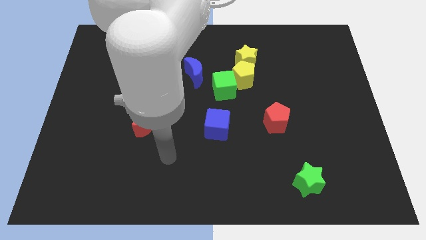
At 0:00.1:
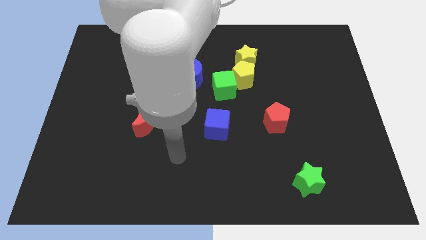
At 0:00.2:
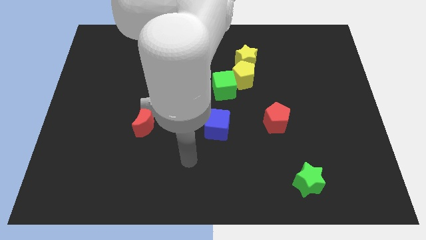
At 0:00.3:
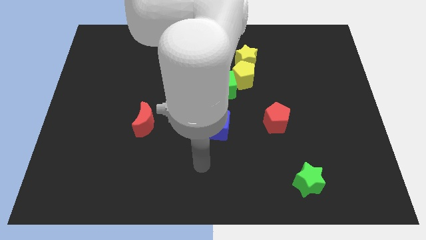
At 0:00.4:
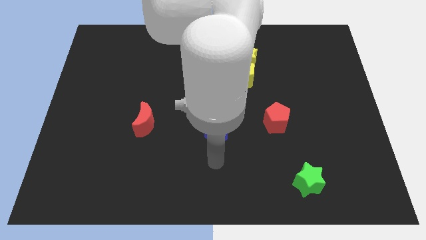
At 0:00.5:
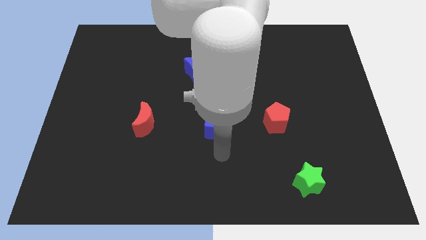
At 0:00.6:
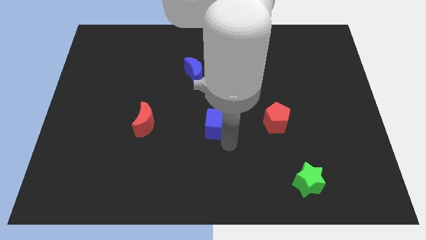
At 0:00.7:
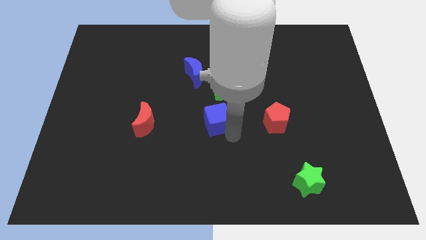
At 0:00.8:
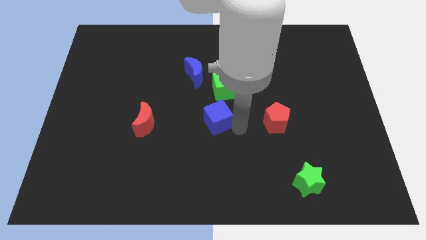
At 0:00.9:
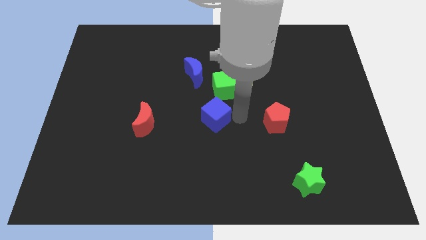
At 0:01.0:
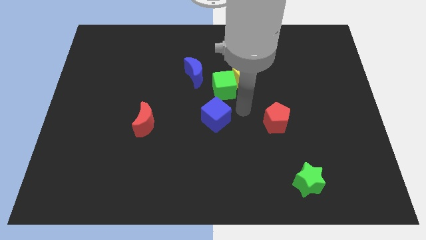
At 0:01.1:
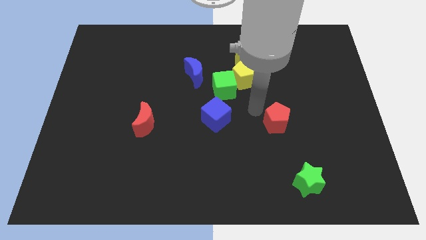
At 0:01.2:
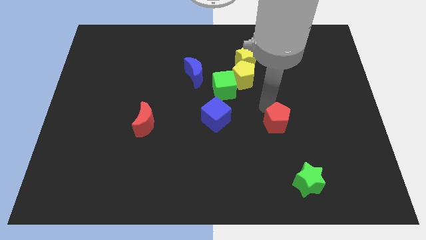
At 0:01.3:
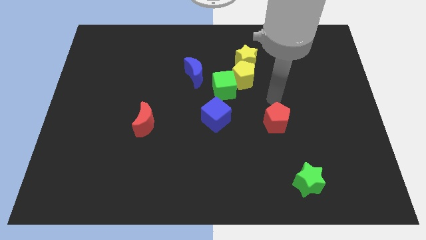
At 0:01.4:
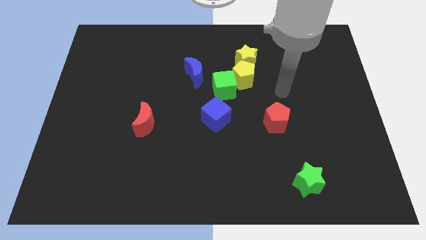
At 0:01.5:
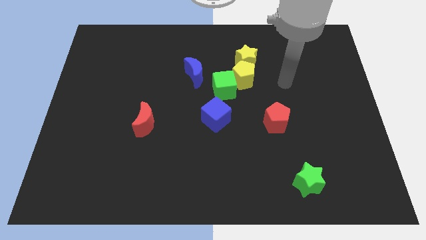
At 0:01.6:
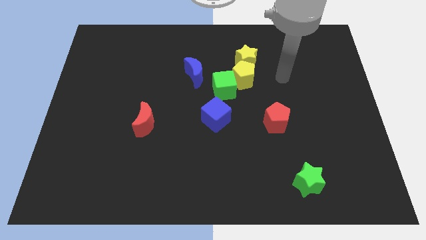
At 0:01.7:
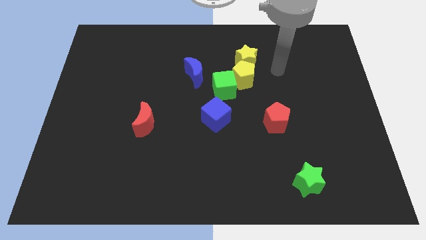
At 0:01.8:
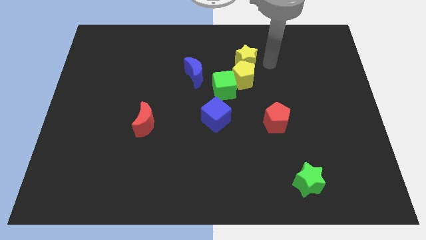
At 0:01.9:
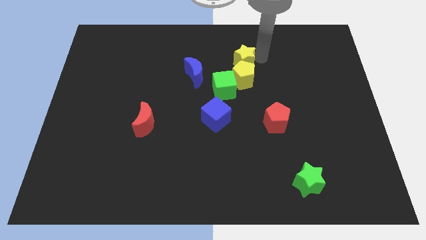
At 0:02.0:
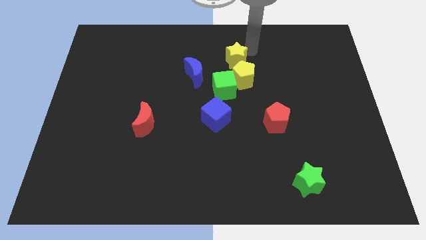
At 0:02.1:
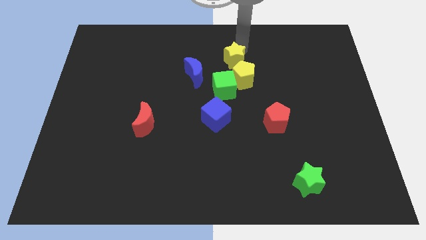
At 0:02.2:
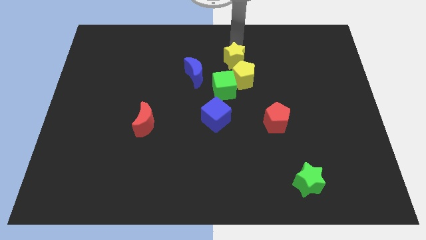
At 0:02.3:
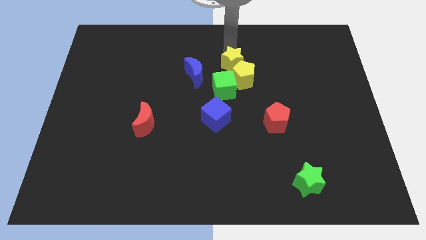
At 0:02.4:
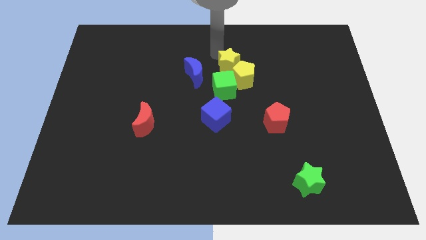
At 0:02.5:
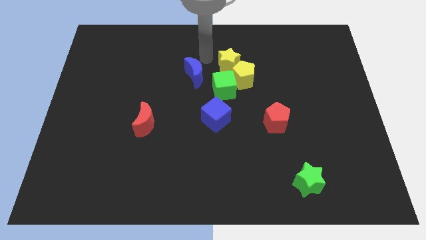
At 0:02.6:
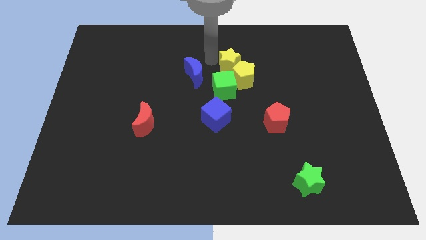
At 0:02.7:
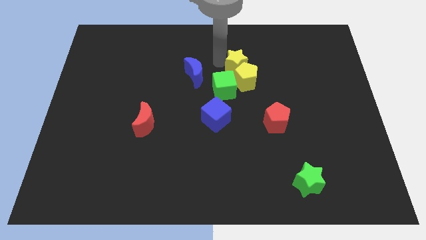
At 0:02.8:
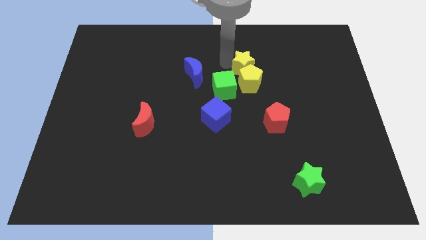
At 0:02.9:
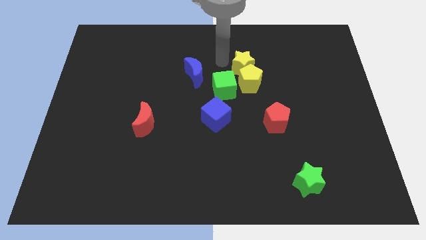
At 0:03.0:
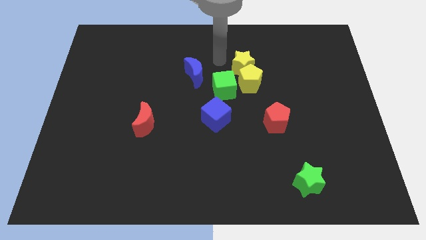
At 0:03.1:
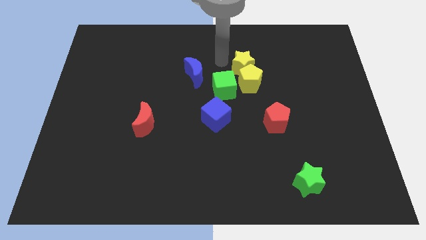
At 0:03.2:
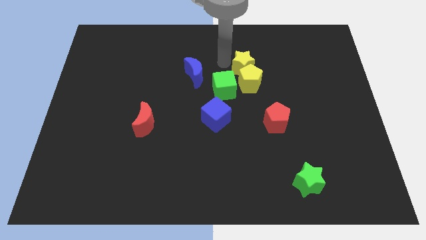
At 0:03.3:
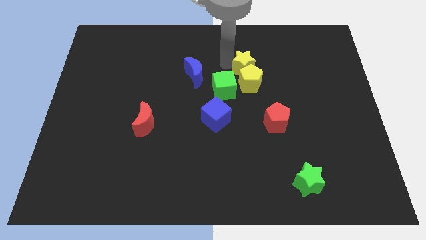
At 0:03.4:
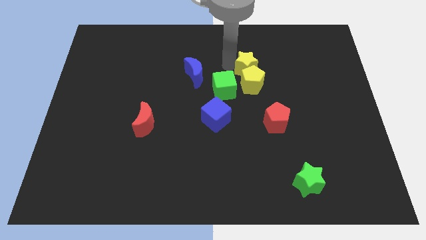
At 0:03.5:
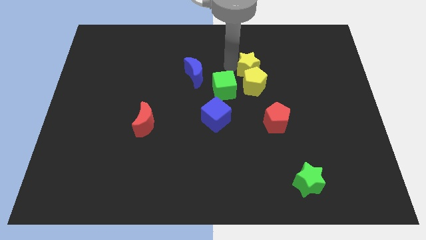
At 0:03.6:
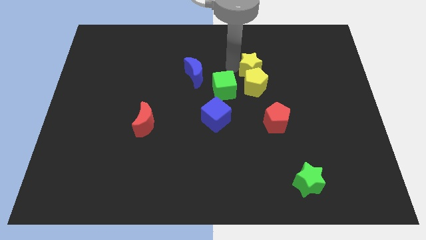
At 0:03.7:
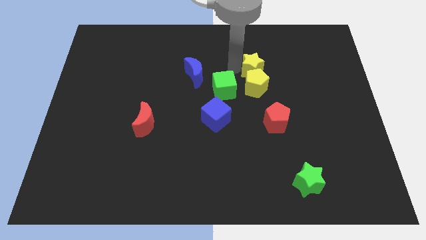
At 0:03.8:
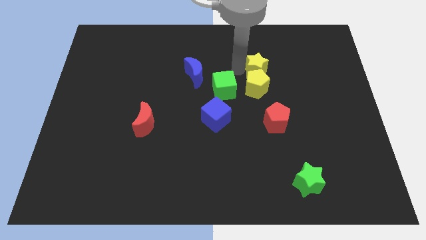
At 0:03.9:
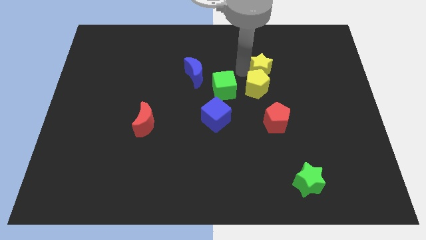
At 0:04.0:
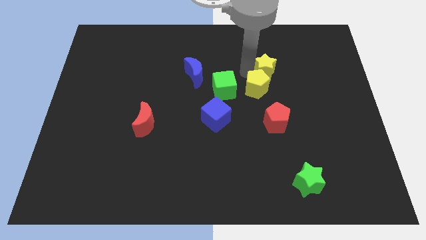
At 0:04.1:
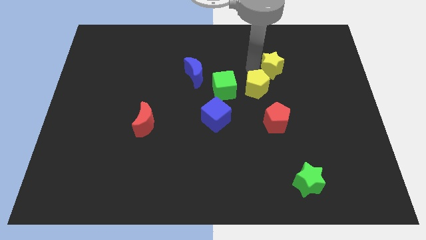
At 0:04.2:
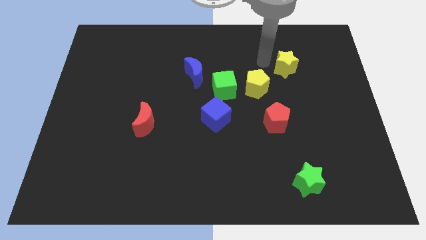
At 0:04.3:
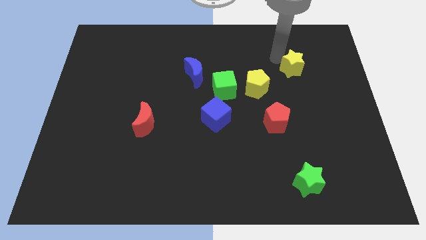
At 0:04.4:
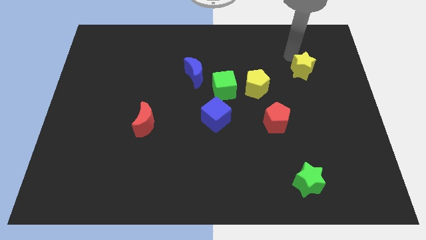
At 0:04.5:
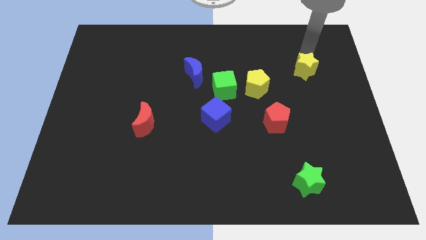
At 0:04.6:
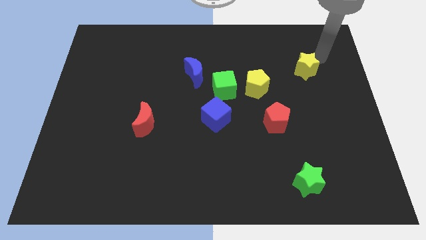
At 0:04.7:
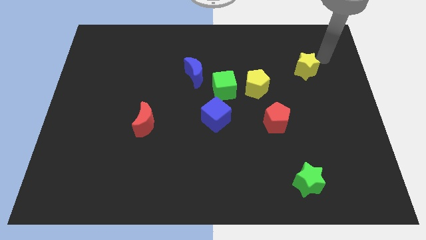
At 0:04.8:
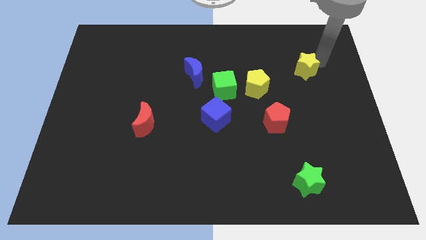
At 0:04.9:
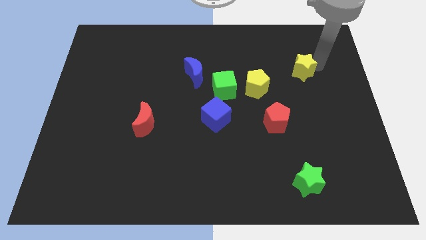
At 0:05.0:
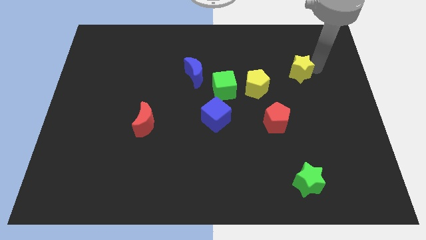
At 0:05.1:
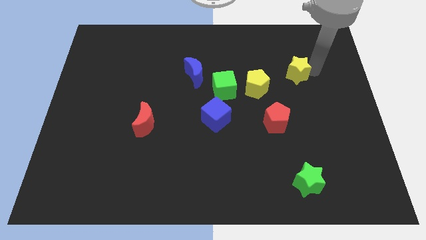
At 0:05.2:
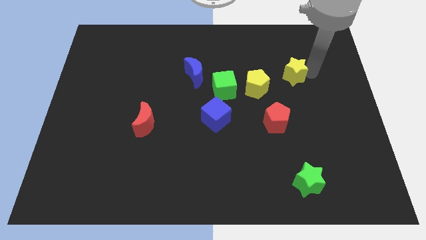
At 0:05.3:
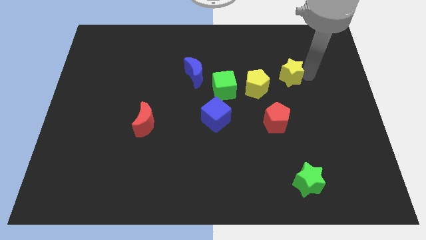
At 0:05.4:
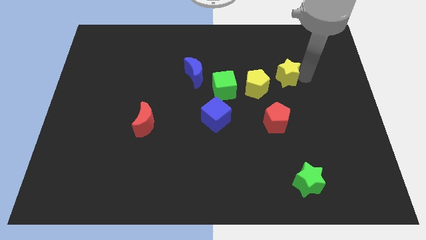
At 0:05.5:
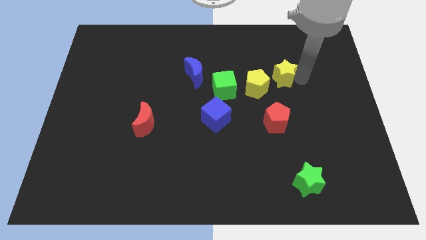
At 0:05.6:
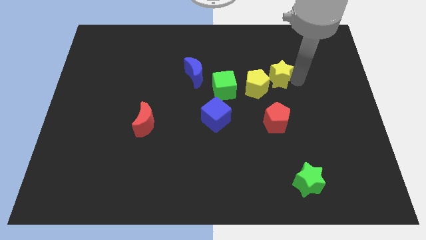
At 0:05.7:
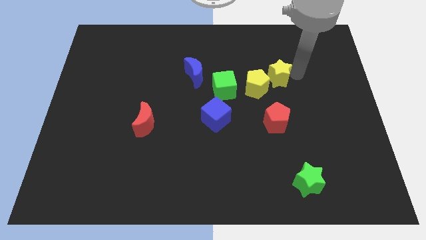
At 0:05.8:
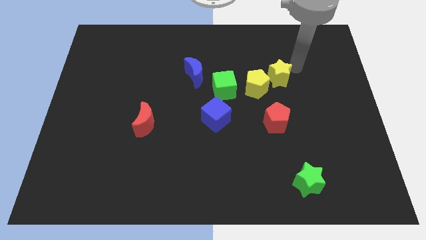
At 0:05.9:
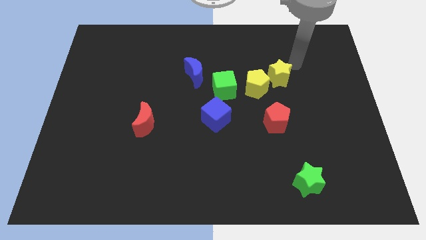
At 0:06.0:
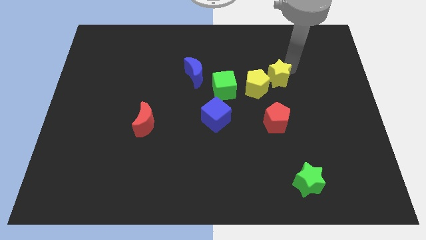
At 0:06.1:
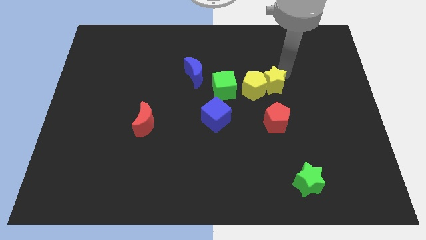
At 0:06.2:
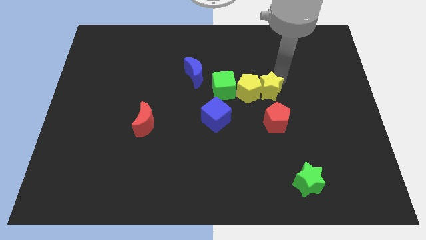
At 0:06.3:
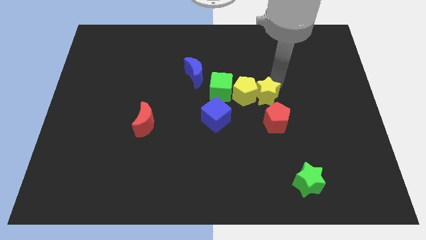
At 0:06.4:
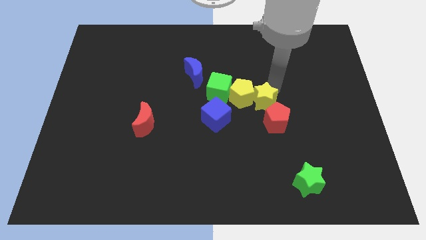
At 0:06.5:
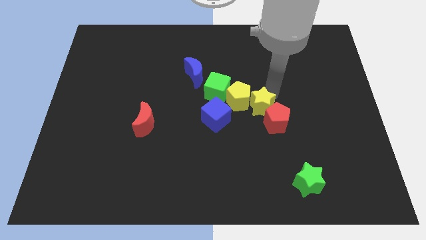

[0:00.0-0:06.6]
move the yellow star to the bottom right of the green cube

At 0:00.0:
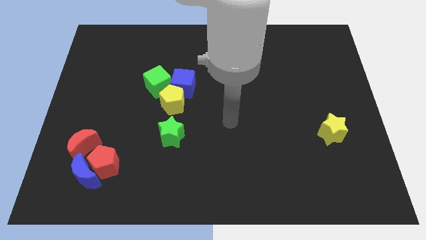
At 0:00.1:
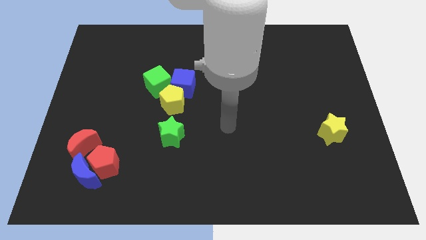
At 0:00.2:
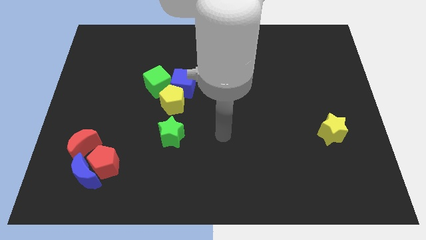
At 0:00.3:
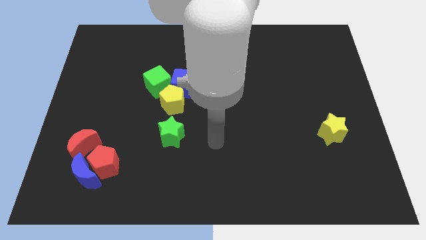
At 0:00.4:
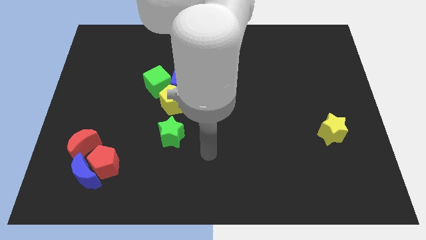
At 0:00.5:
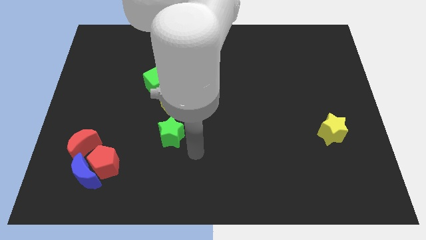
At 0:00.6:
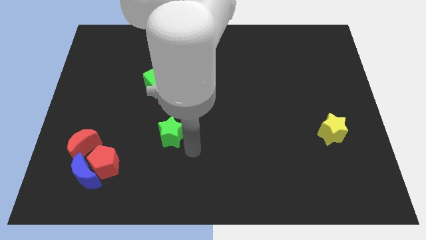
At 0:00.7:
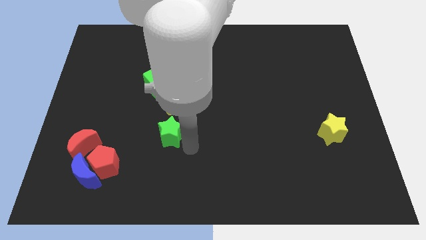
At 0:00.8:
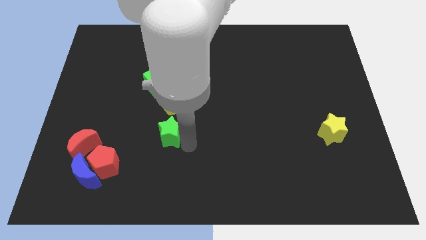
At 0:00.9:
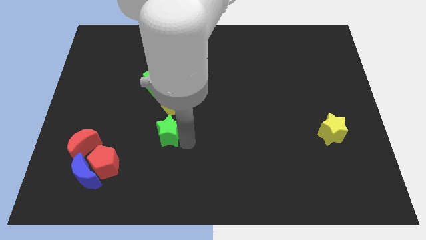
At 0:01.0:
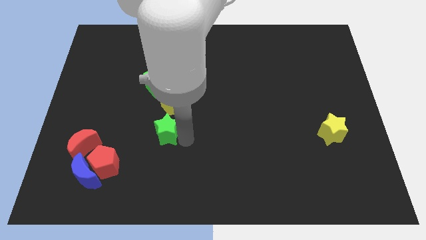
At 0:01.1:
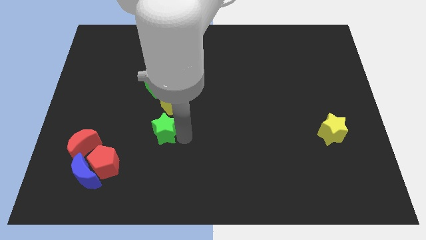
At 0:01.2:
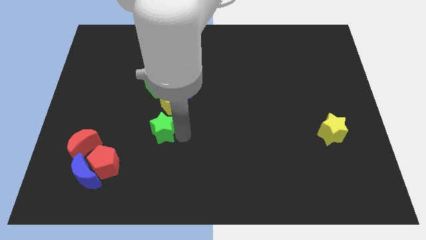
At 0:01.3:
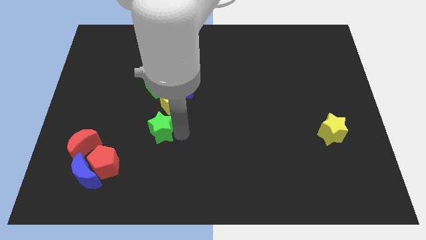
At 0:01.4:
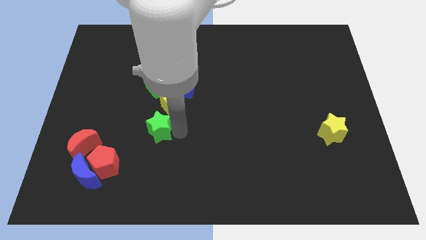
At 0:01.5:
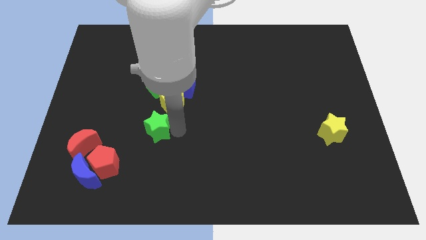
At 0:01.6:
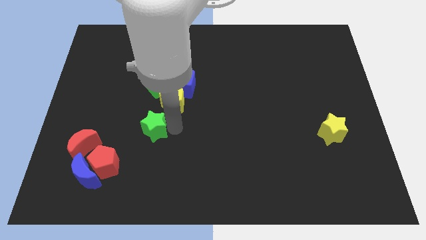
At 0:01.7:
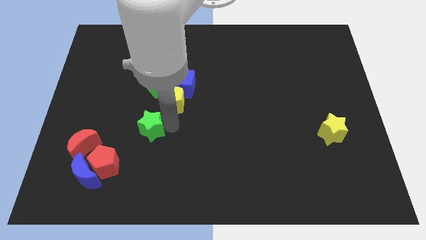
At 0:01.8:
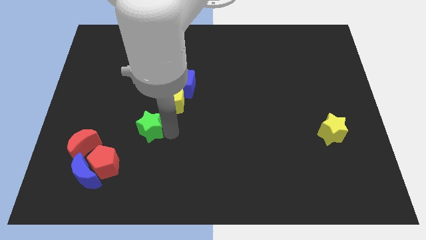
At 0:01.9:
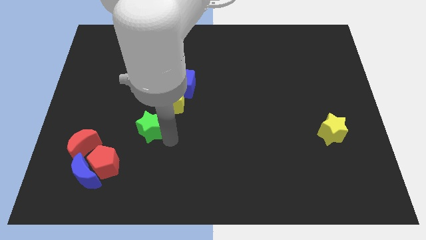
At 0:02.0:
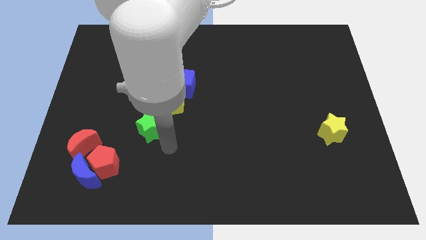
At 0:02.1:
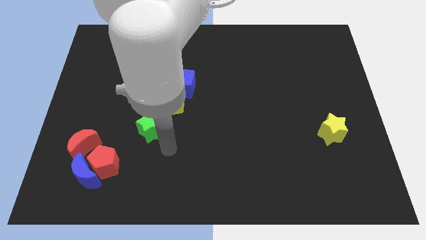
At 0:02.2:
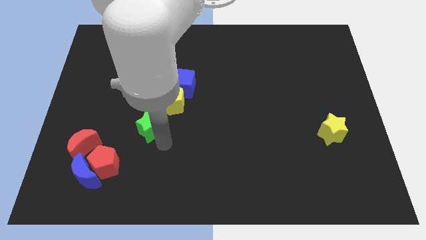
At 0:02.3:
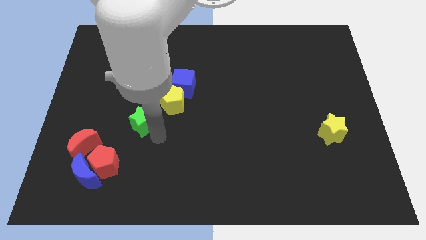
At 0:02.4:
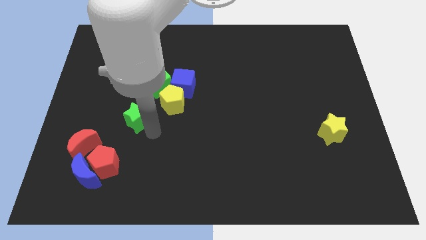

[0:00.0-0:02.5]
move the green star to the left of the yellow pentagon
